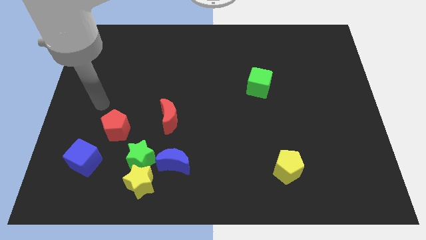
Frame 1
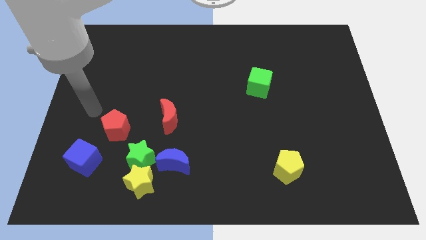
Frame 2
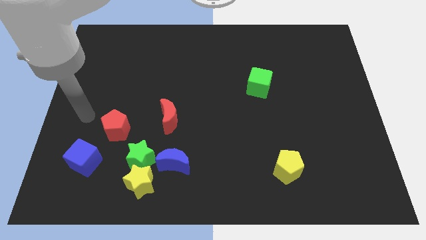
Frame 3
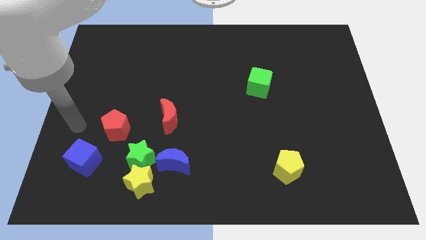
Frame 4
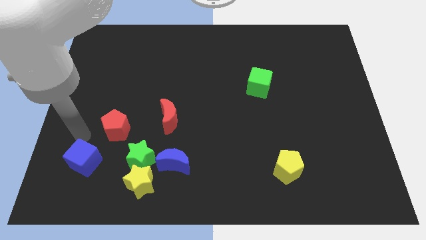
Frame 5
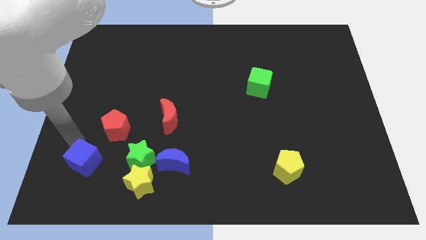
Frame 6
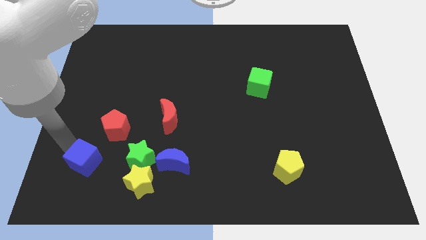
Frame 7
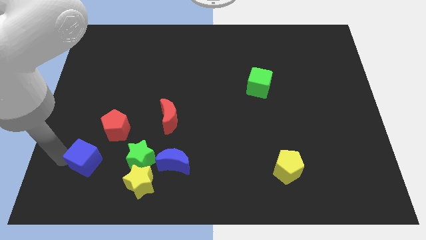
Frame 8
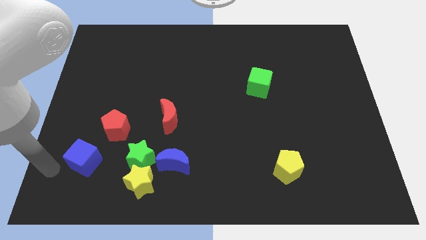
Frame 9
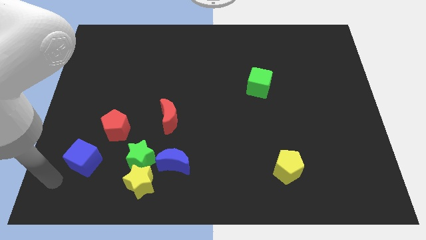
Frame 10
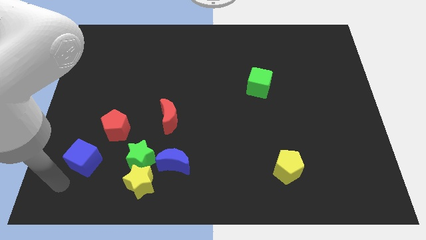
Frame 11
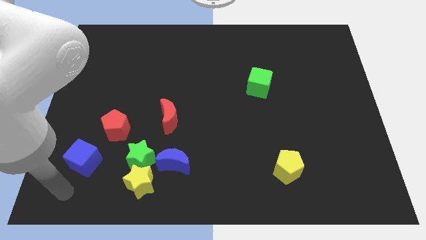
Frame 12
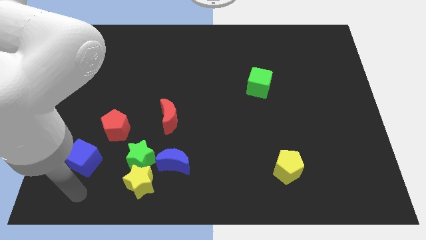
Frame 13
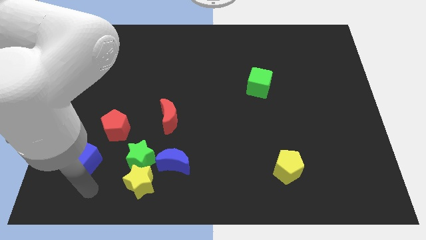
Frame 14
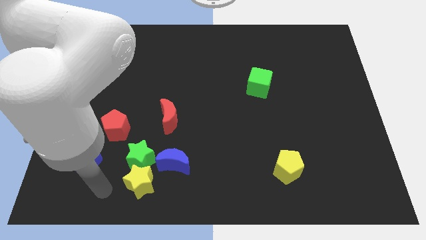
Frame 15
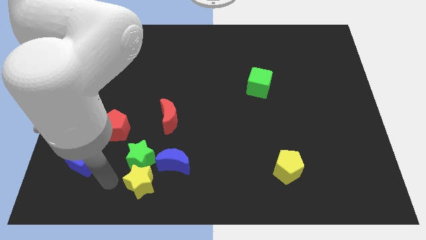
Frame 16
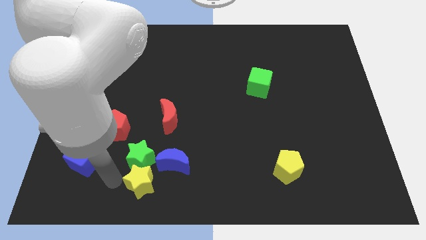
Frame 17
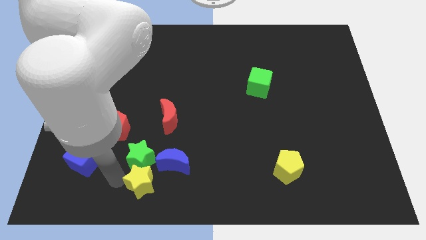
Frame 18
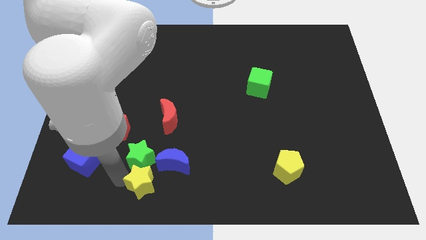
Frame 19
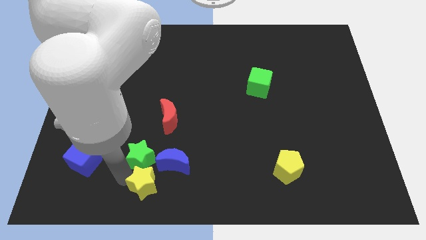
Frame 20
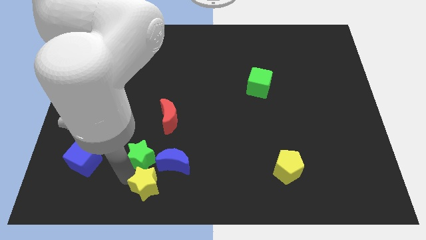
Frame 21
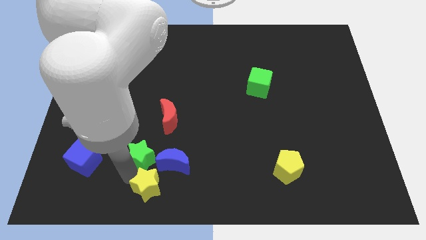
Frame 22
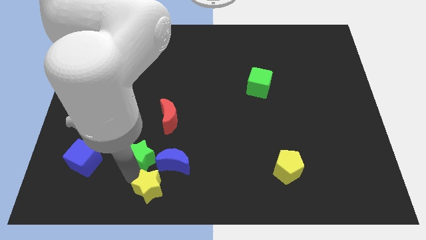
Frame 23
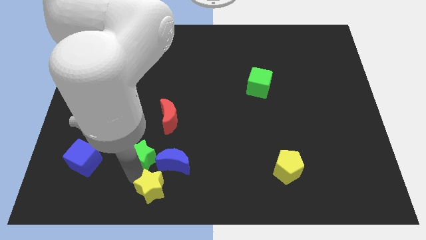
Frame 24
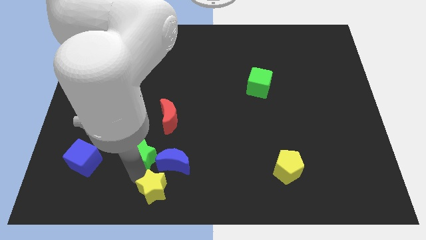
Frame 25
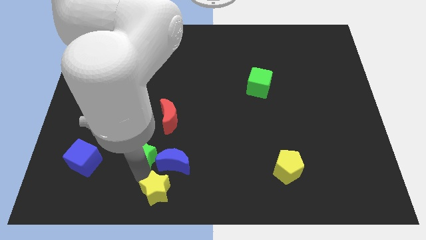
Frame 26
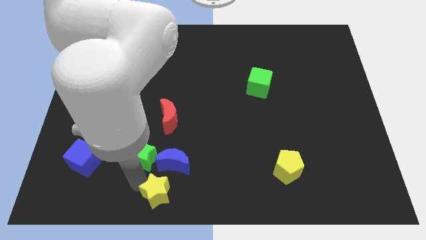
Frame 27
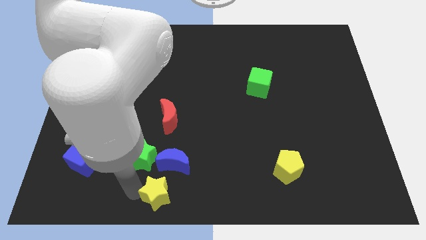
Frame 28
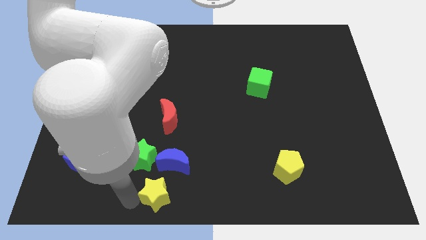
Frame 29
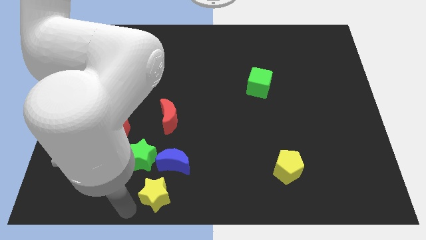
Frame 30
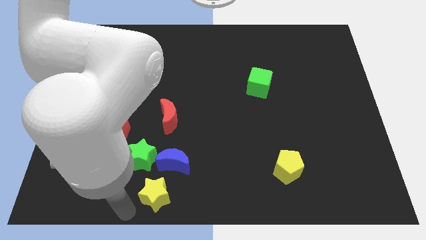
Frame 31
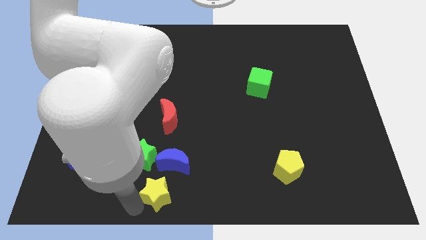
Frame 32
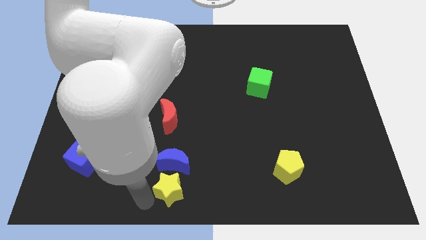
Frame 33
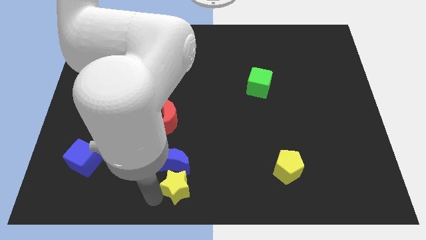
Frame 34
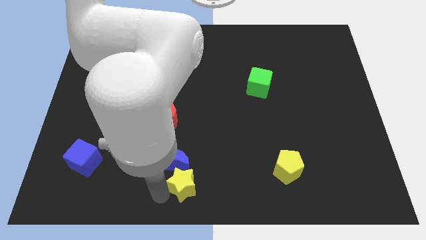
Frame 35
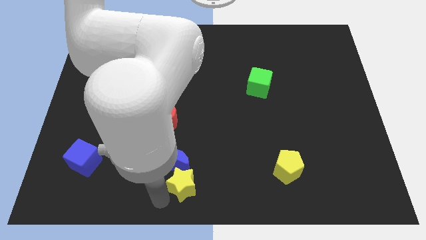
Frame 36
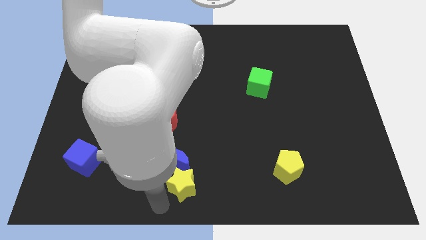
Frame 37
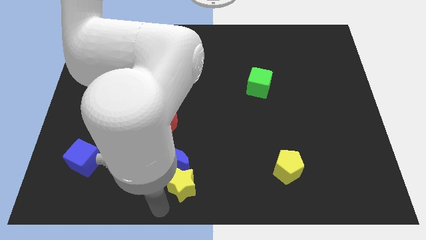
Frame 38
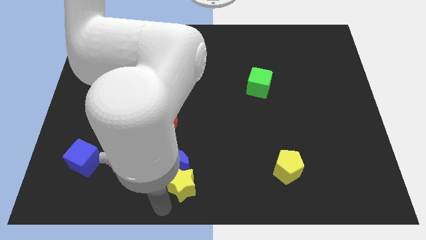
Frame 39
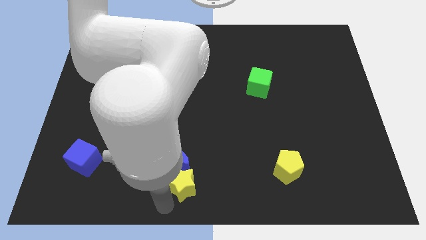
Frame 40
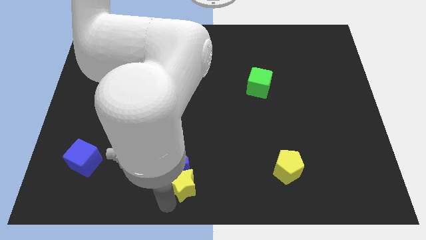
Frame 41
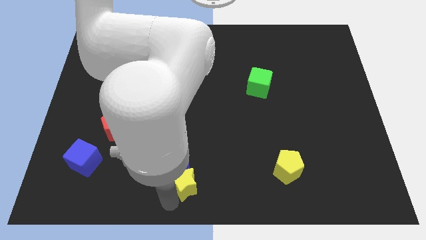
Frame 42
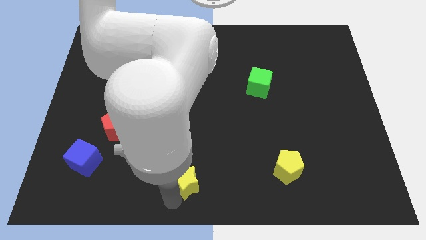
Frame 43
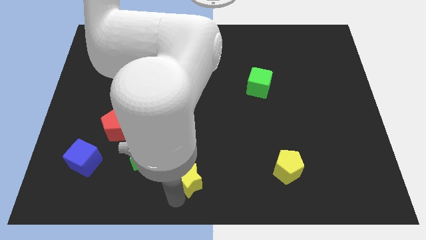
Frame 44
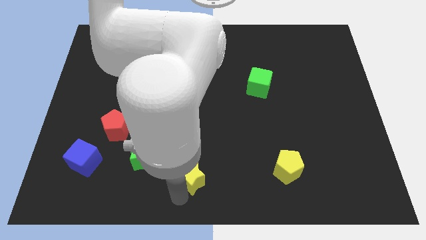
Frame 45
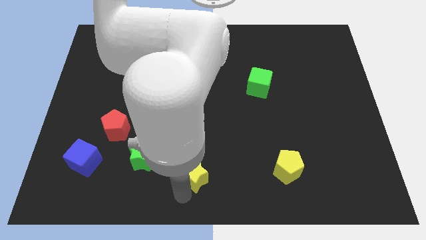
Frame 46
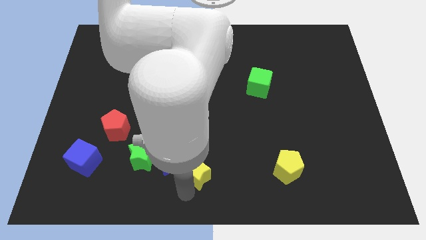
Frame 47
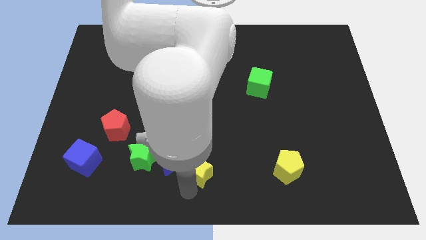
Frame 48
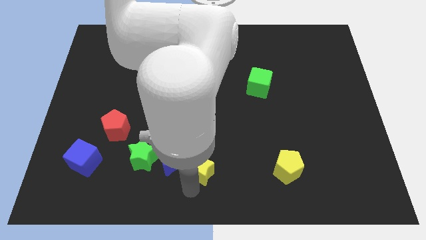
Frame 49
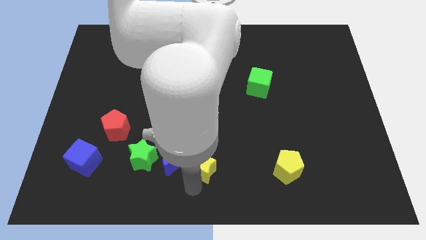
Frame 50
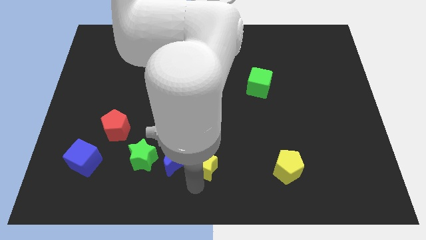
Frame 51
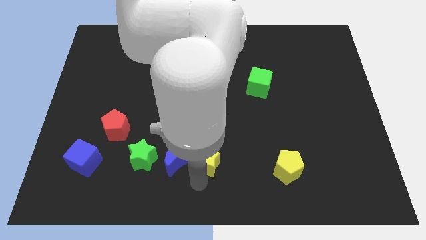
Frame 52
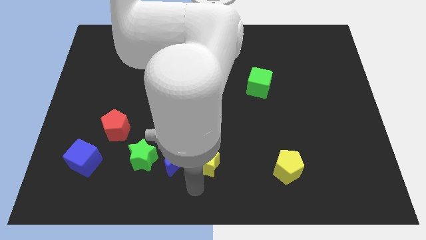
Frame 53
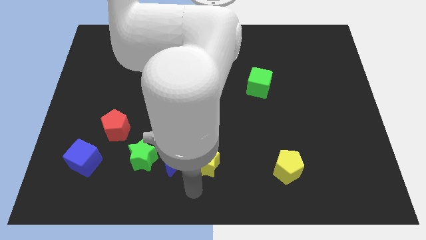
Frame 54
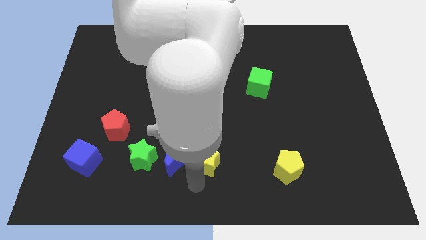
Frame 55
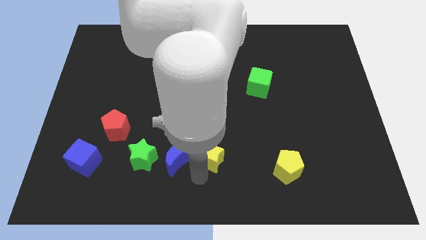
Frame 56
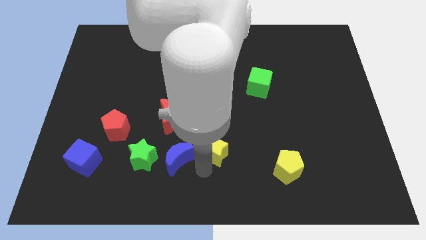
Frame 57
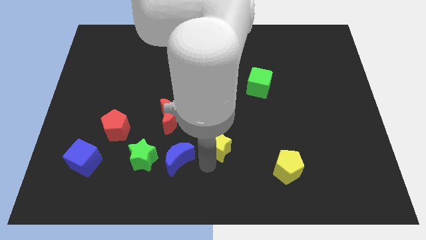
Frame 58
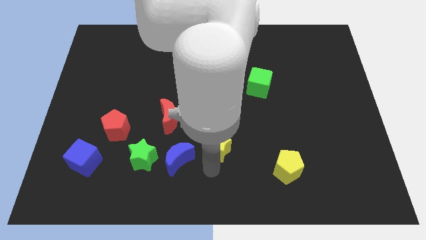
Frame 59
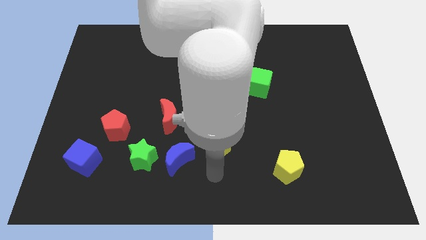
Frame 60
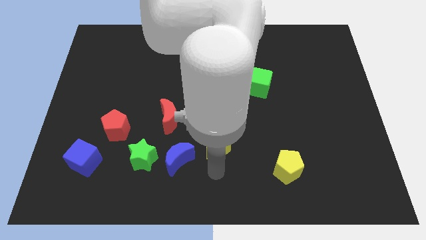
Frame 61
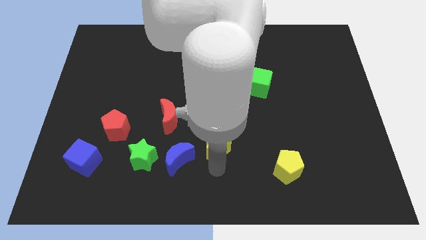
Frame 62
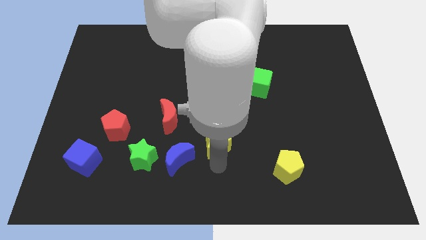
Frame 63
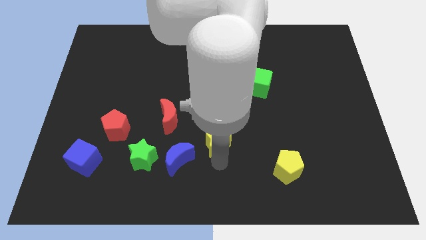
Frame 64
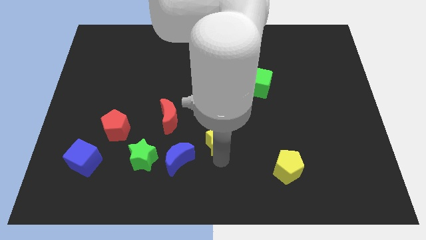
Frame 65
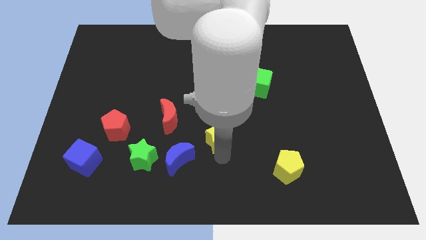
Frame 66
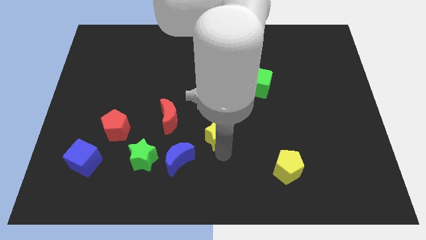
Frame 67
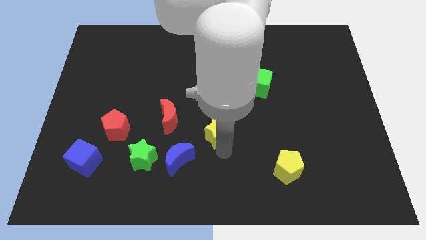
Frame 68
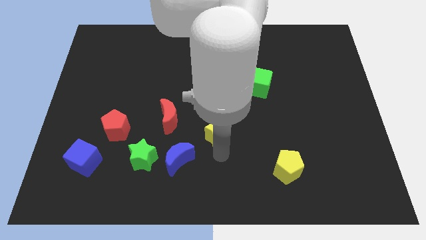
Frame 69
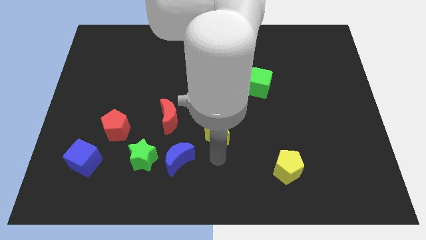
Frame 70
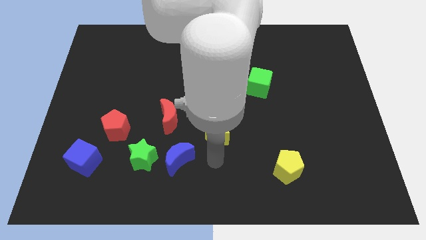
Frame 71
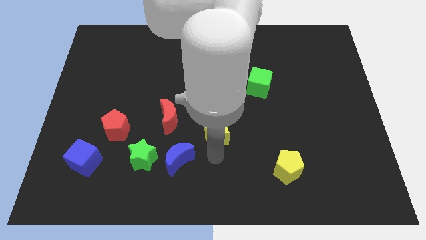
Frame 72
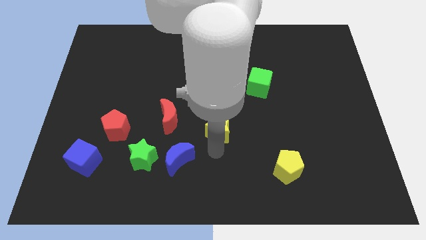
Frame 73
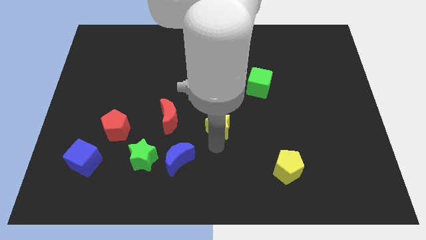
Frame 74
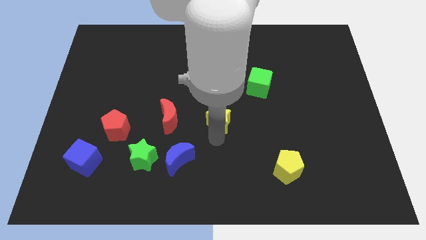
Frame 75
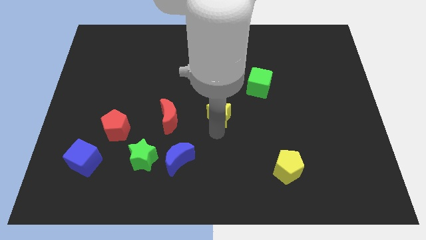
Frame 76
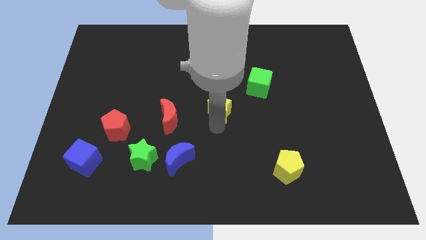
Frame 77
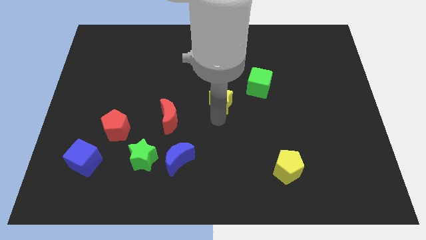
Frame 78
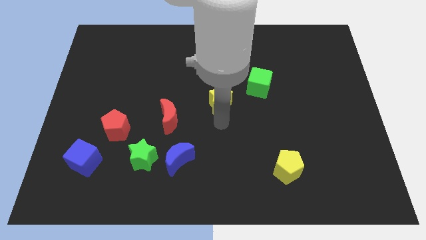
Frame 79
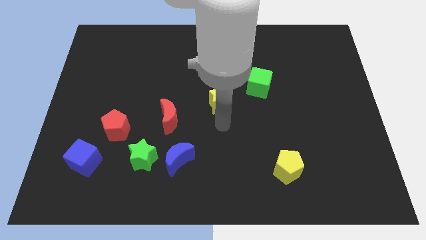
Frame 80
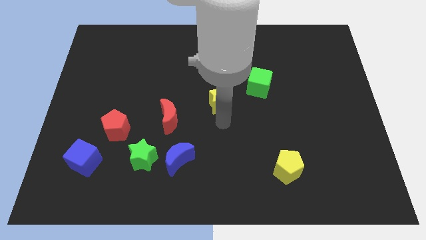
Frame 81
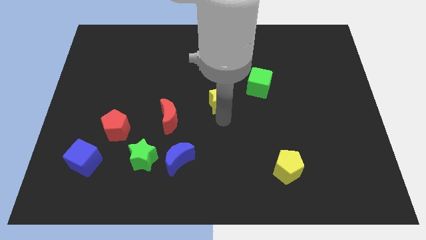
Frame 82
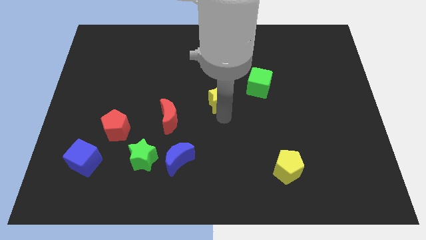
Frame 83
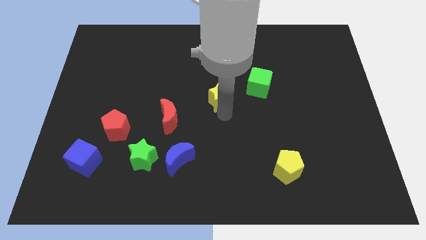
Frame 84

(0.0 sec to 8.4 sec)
slide the yellow star left of the green cube
